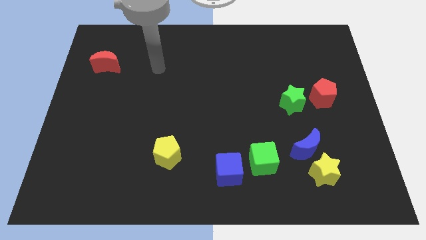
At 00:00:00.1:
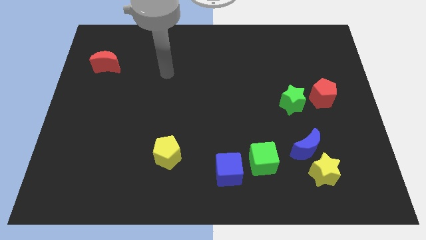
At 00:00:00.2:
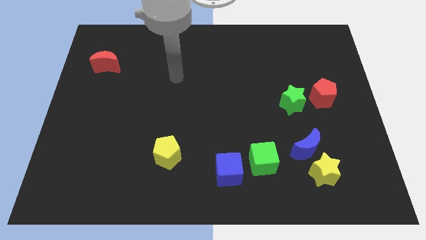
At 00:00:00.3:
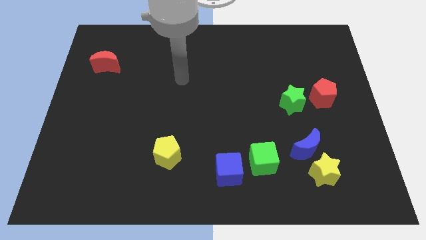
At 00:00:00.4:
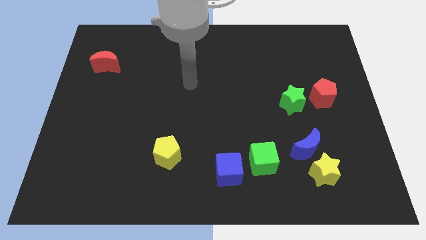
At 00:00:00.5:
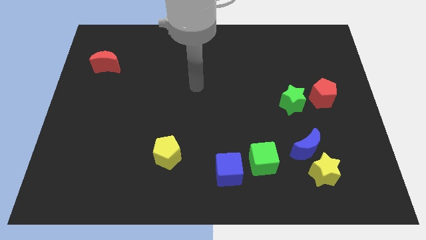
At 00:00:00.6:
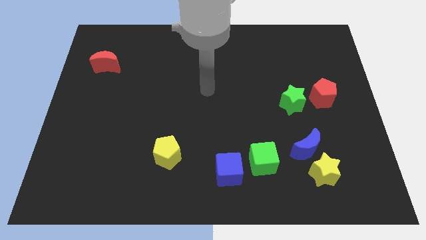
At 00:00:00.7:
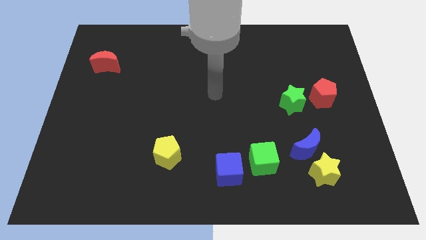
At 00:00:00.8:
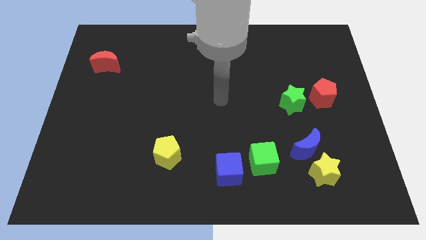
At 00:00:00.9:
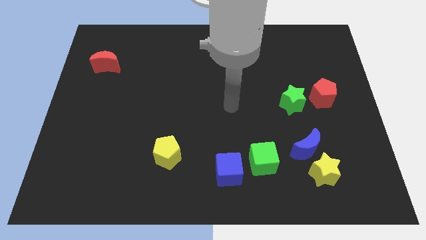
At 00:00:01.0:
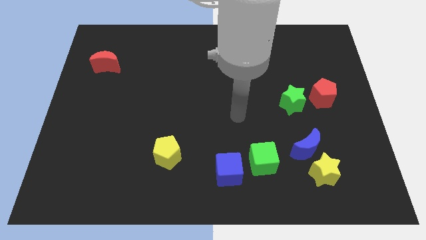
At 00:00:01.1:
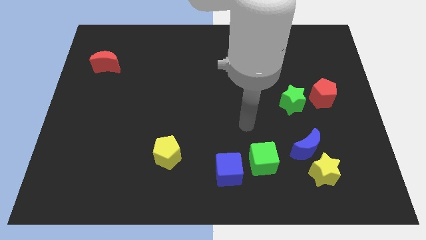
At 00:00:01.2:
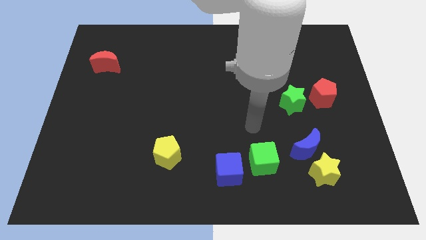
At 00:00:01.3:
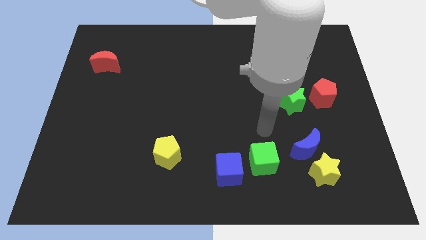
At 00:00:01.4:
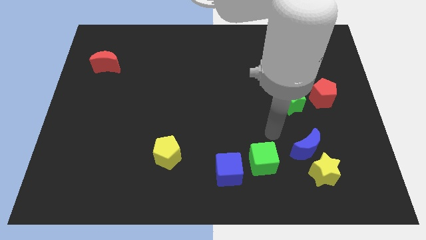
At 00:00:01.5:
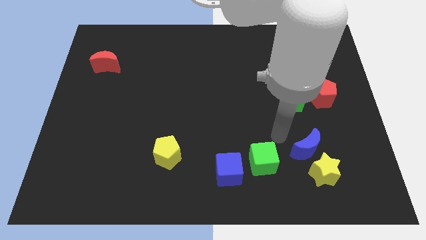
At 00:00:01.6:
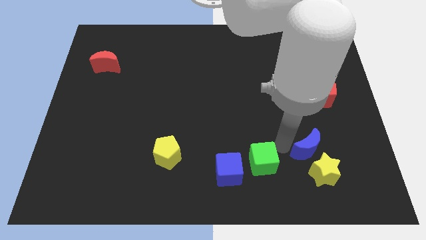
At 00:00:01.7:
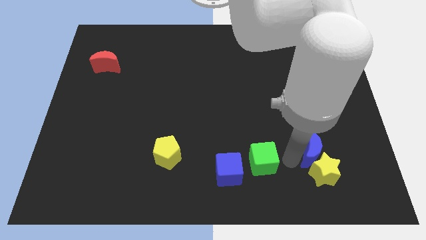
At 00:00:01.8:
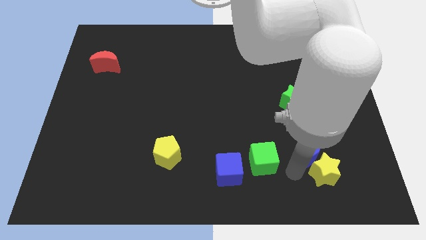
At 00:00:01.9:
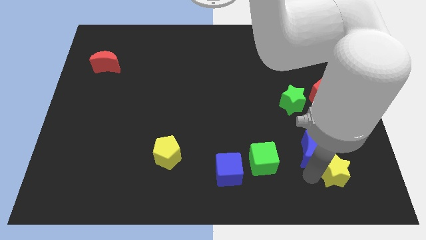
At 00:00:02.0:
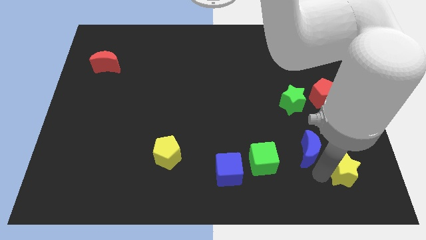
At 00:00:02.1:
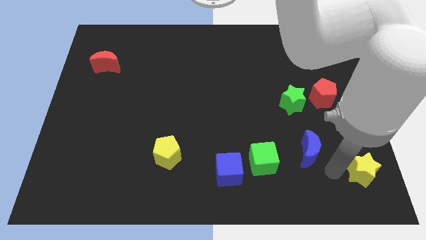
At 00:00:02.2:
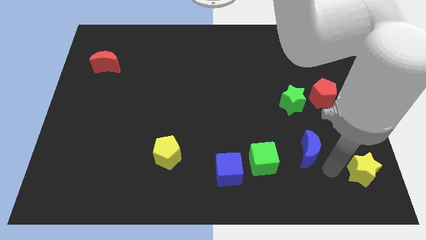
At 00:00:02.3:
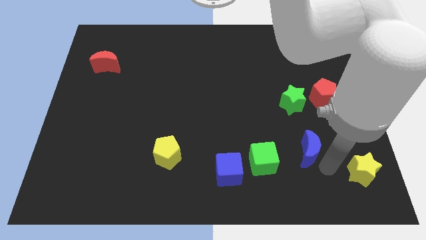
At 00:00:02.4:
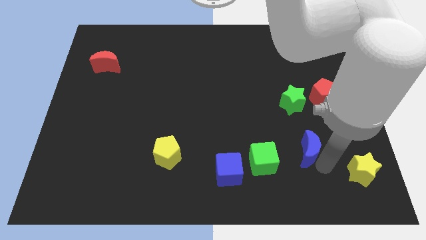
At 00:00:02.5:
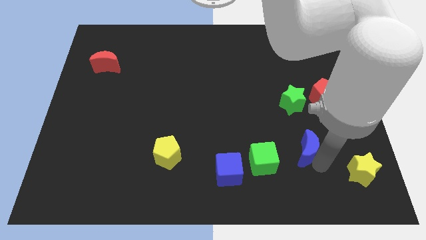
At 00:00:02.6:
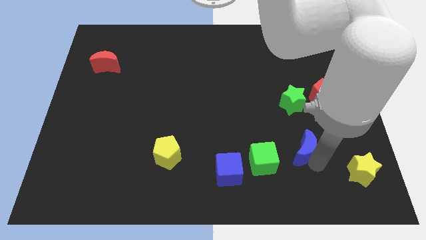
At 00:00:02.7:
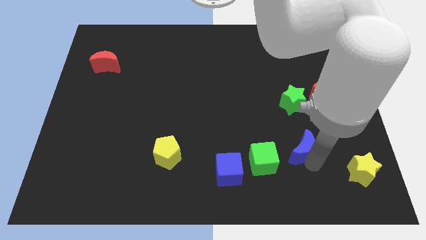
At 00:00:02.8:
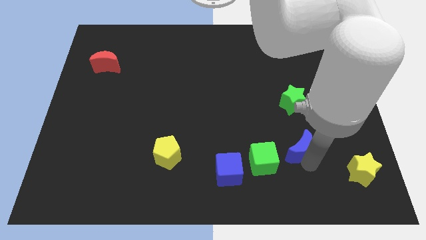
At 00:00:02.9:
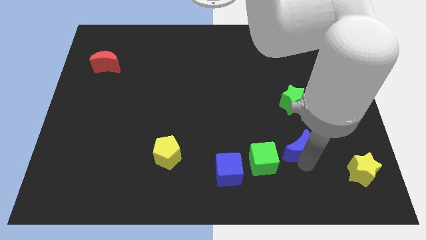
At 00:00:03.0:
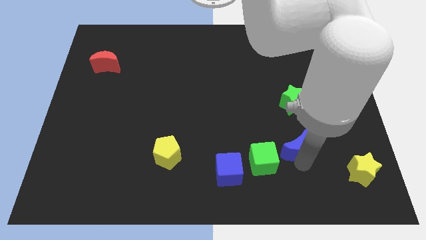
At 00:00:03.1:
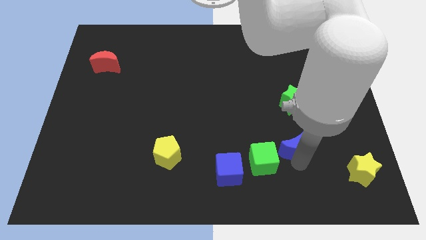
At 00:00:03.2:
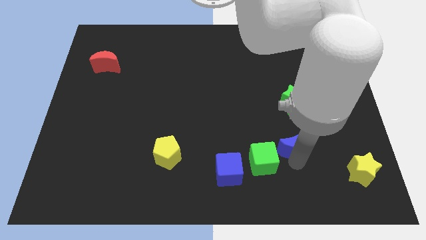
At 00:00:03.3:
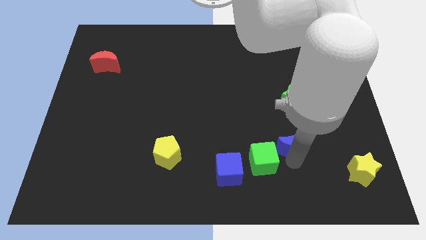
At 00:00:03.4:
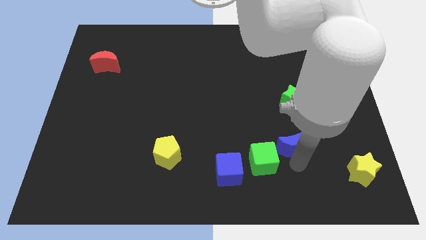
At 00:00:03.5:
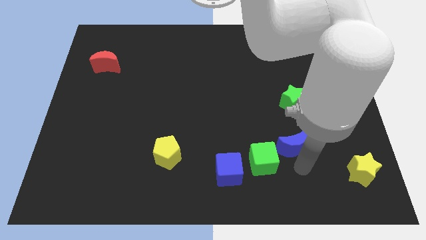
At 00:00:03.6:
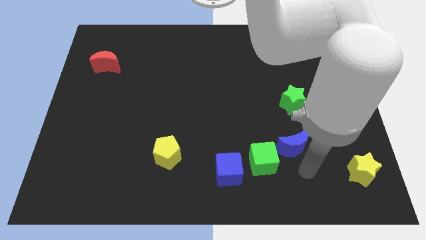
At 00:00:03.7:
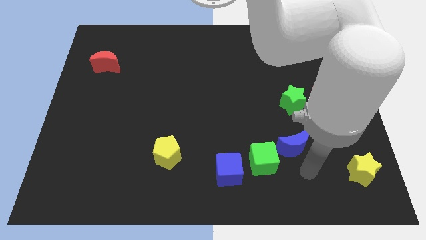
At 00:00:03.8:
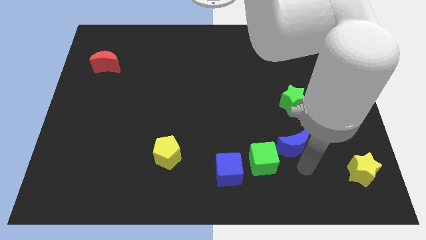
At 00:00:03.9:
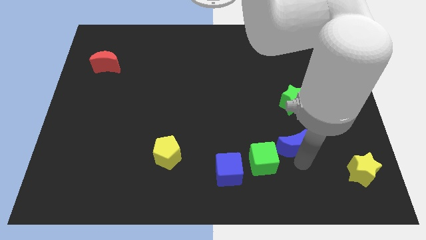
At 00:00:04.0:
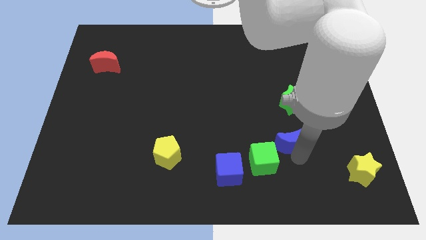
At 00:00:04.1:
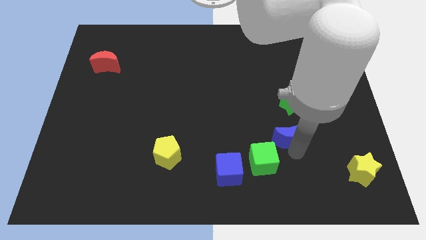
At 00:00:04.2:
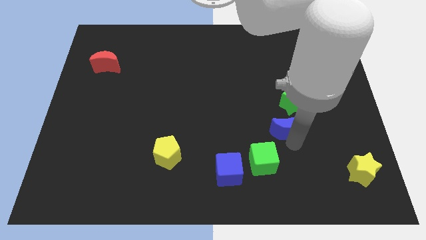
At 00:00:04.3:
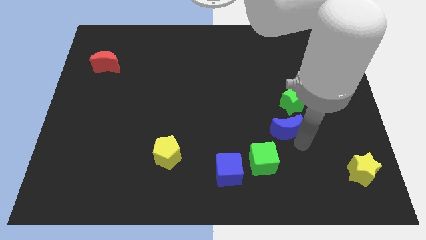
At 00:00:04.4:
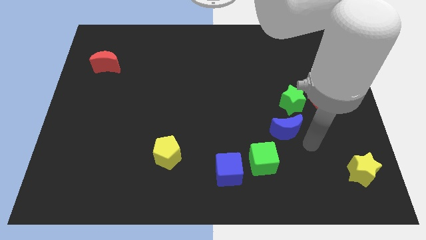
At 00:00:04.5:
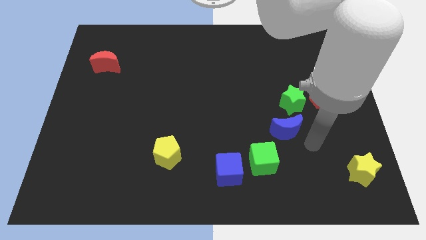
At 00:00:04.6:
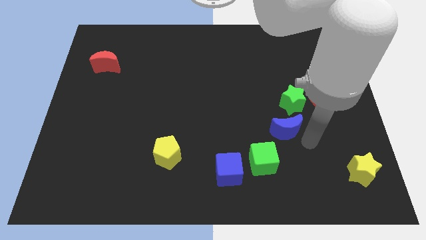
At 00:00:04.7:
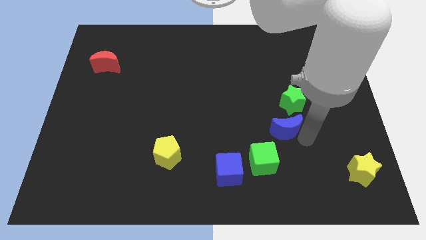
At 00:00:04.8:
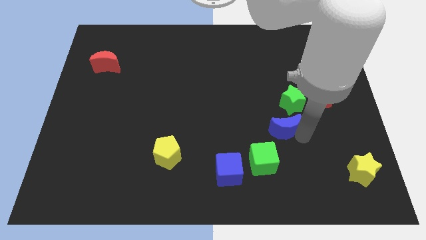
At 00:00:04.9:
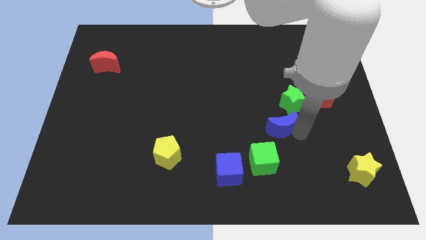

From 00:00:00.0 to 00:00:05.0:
slightly move the blue moon upwards and to the left

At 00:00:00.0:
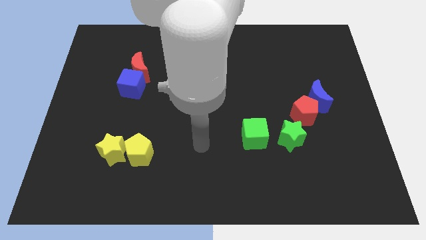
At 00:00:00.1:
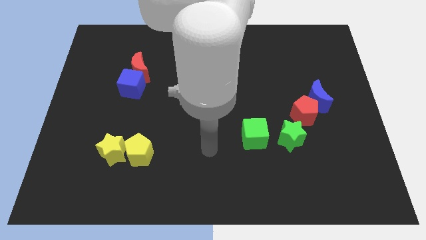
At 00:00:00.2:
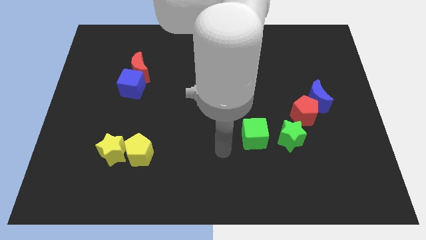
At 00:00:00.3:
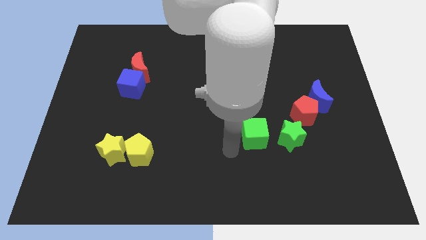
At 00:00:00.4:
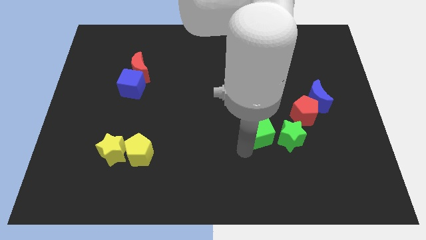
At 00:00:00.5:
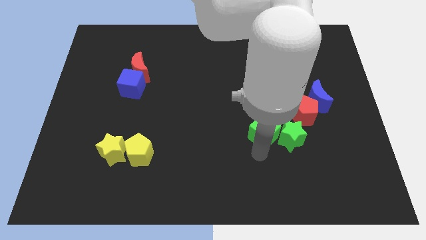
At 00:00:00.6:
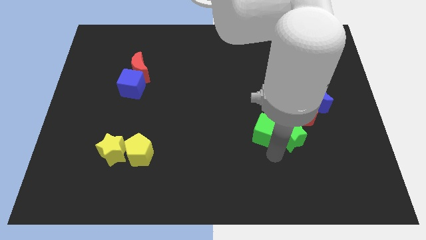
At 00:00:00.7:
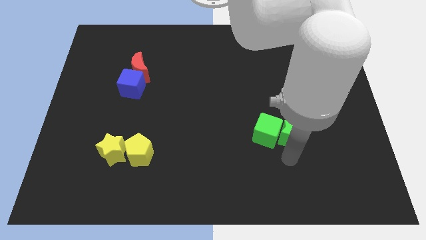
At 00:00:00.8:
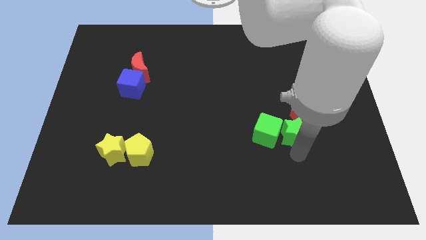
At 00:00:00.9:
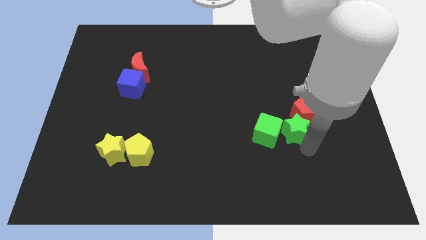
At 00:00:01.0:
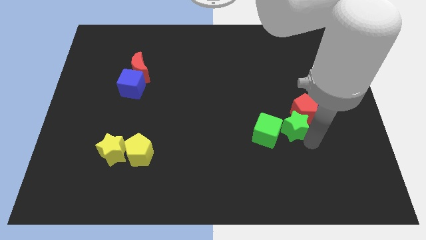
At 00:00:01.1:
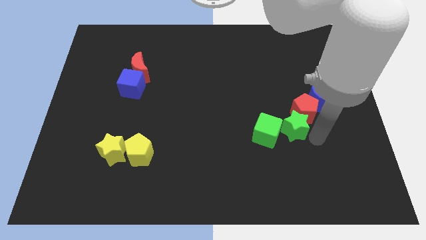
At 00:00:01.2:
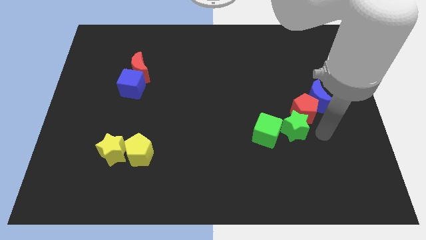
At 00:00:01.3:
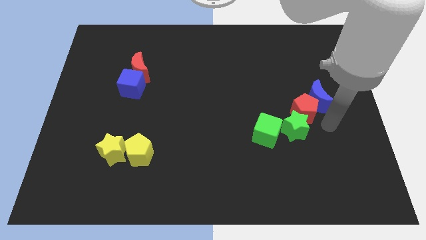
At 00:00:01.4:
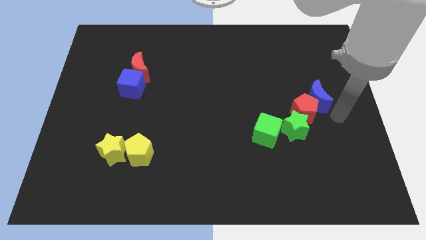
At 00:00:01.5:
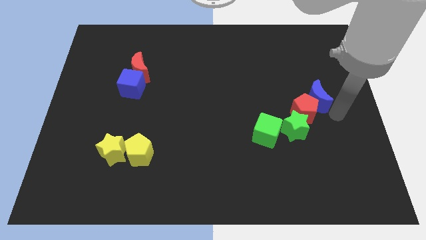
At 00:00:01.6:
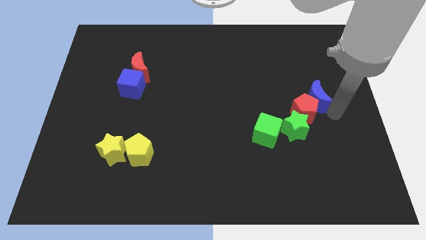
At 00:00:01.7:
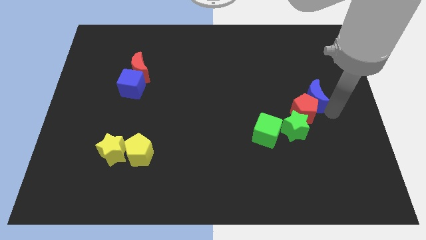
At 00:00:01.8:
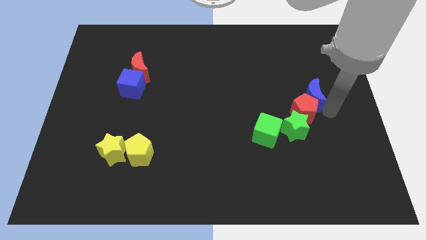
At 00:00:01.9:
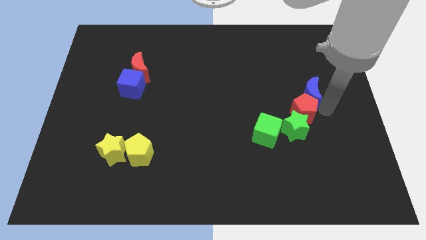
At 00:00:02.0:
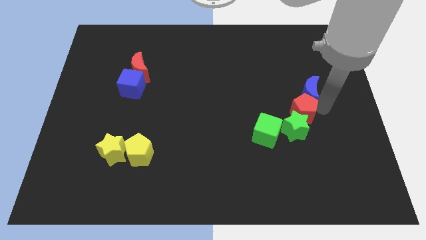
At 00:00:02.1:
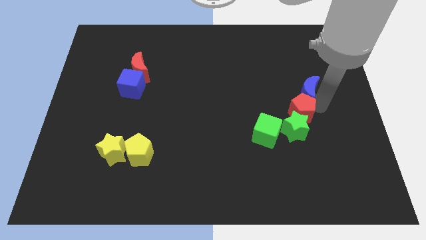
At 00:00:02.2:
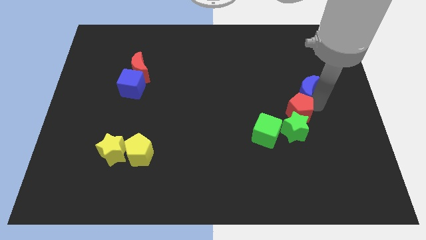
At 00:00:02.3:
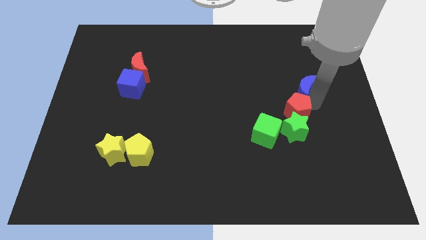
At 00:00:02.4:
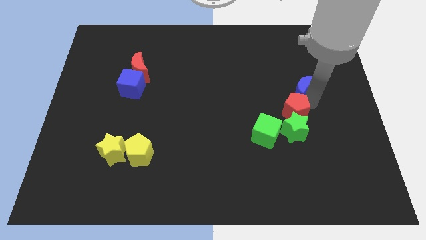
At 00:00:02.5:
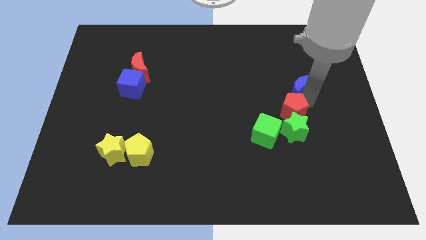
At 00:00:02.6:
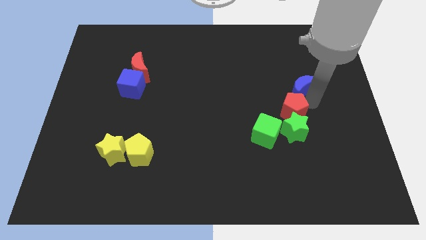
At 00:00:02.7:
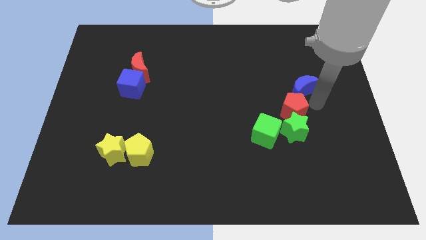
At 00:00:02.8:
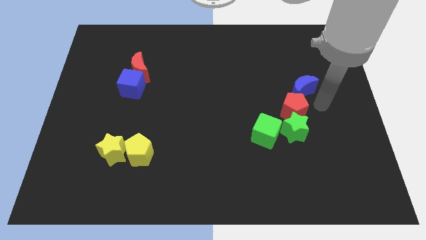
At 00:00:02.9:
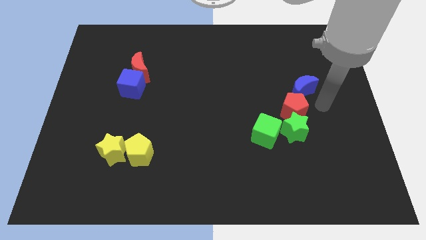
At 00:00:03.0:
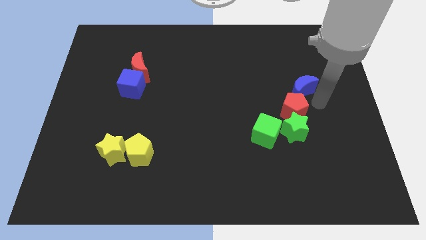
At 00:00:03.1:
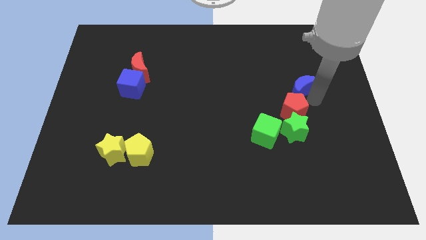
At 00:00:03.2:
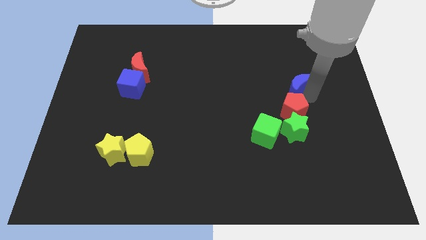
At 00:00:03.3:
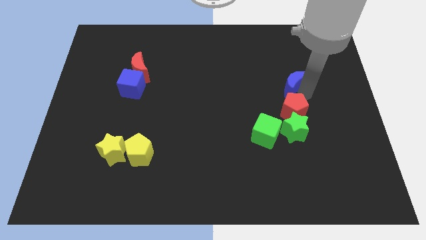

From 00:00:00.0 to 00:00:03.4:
move the blue moon somewhat upwards and to the left
